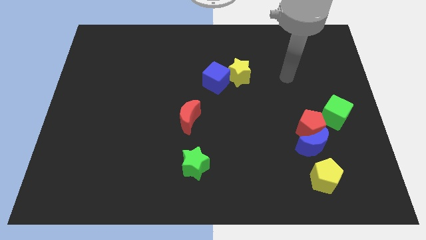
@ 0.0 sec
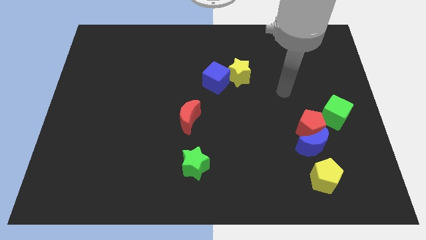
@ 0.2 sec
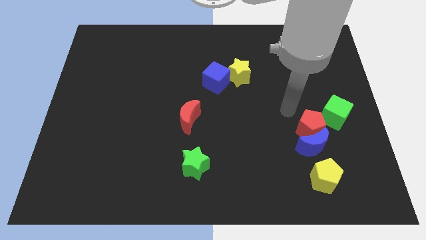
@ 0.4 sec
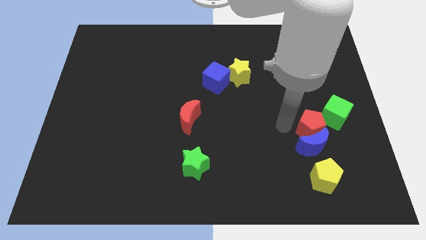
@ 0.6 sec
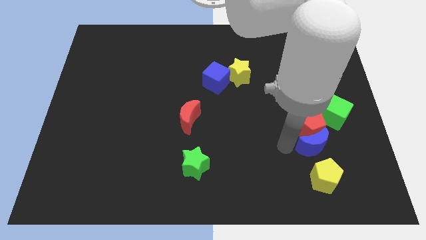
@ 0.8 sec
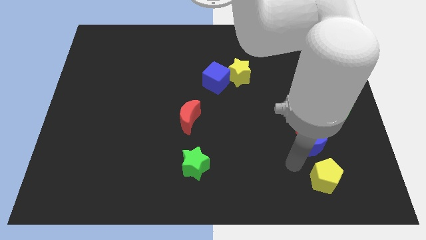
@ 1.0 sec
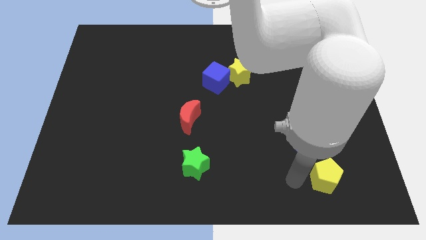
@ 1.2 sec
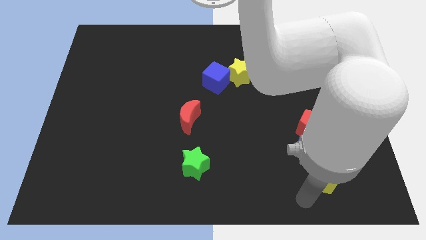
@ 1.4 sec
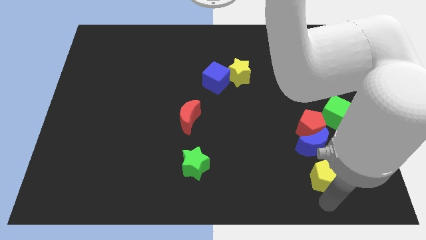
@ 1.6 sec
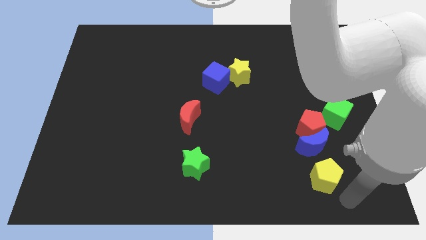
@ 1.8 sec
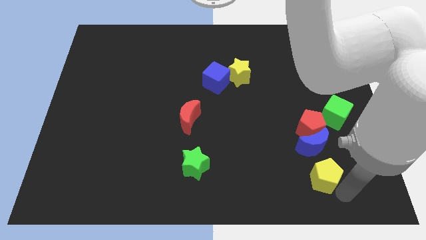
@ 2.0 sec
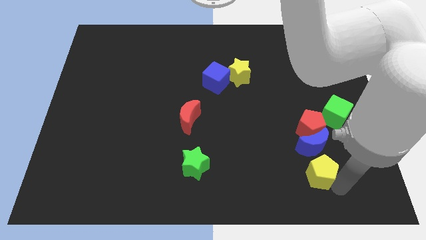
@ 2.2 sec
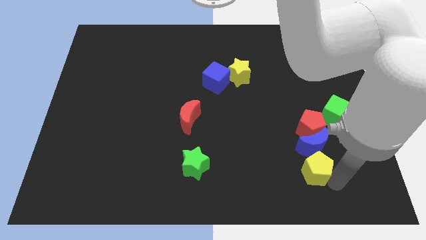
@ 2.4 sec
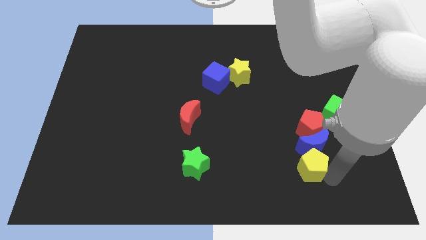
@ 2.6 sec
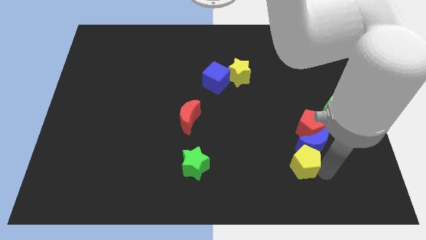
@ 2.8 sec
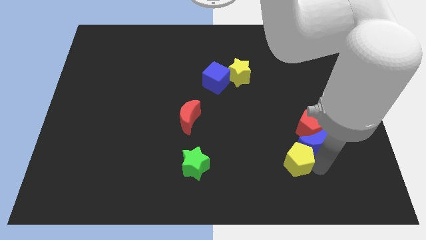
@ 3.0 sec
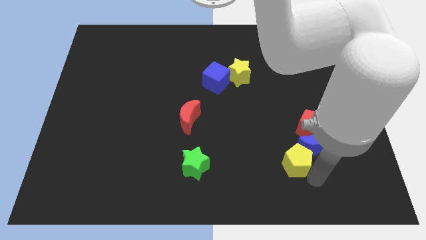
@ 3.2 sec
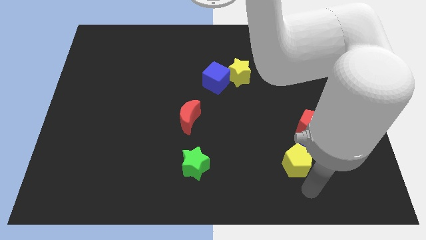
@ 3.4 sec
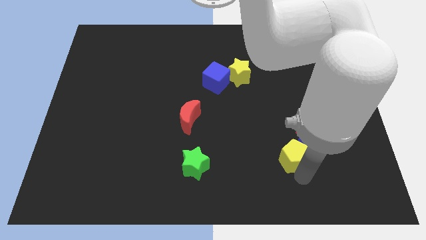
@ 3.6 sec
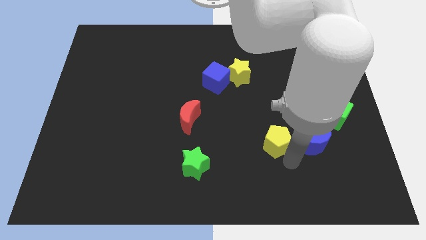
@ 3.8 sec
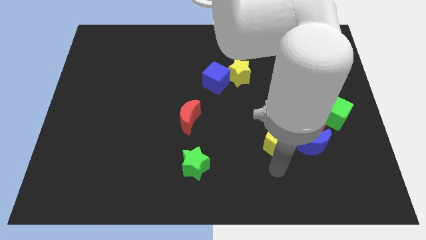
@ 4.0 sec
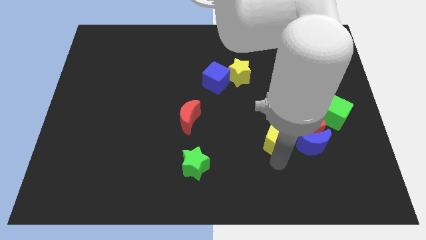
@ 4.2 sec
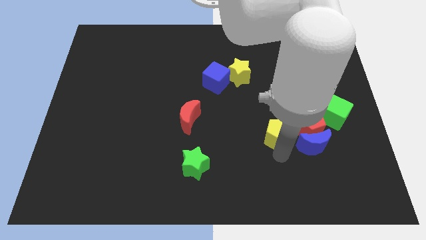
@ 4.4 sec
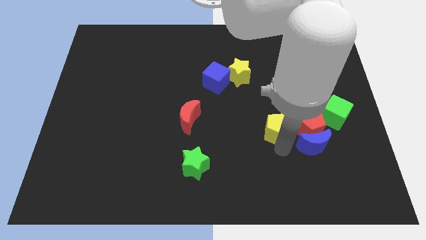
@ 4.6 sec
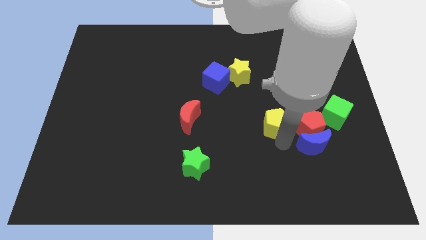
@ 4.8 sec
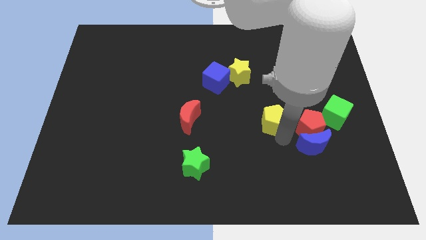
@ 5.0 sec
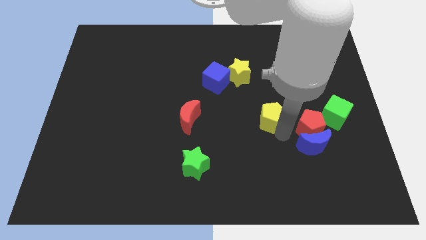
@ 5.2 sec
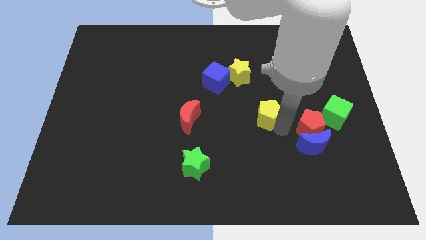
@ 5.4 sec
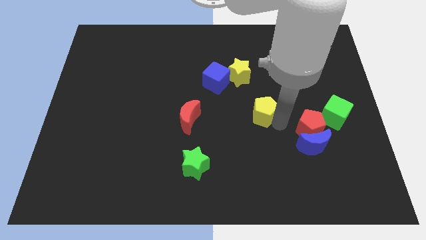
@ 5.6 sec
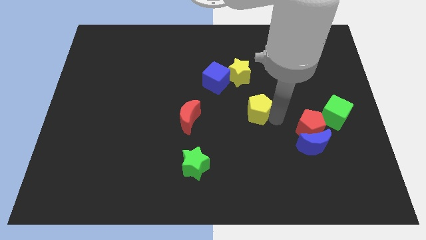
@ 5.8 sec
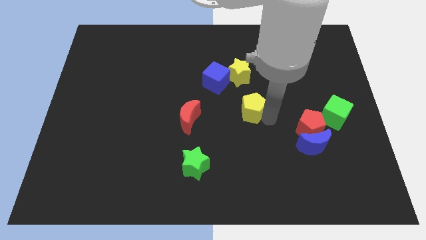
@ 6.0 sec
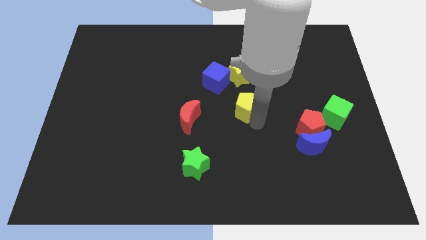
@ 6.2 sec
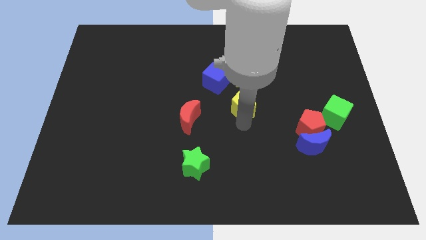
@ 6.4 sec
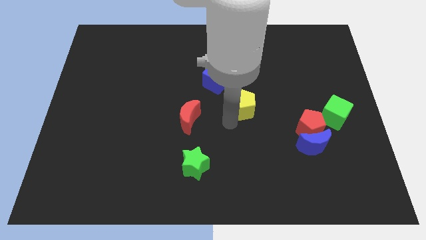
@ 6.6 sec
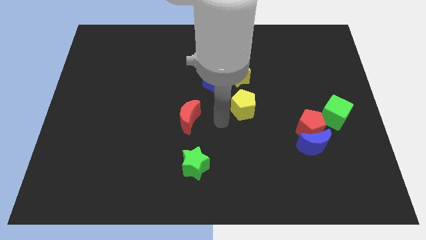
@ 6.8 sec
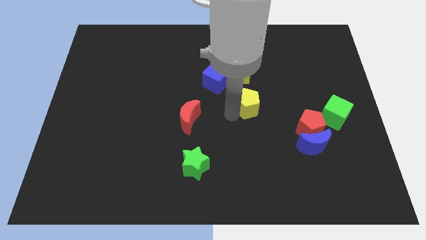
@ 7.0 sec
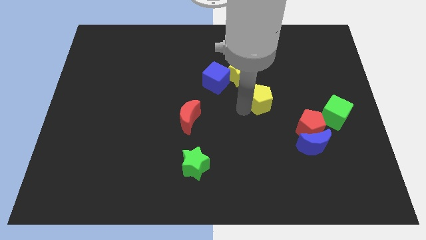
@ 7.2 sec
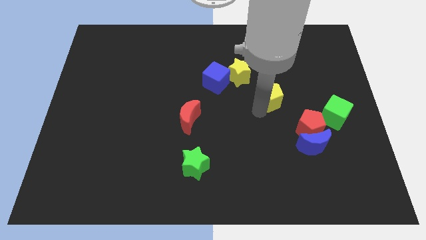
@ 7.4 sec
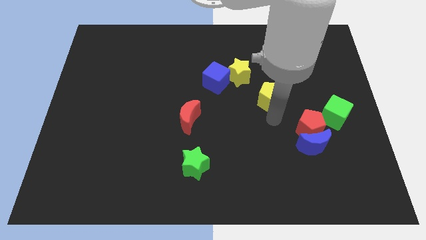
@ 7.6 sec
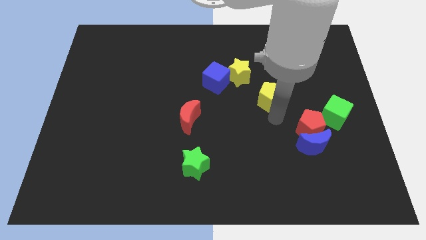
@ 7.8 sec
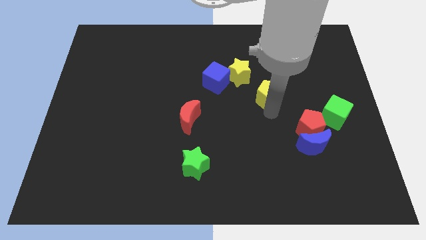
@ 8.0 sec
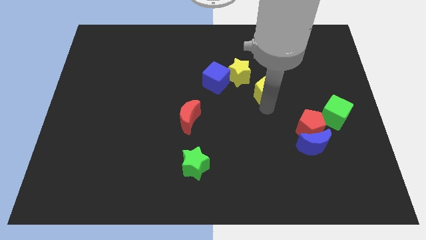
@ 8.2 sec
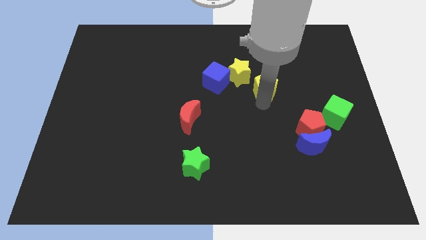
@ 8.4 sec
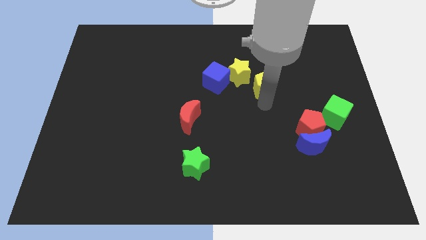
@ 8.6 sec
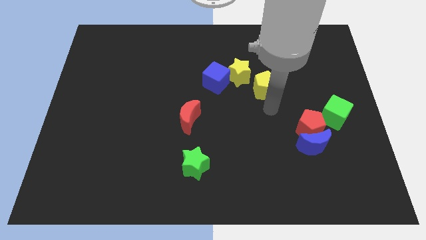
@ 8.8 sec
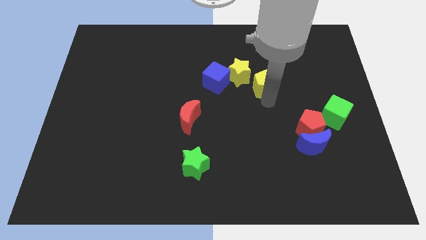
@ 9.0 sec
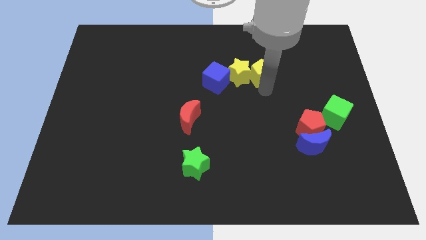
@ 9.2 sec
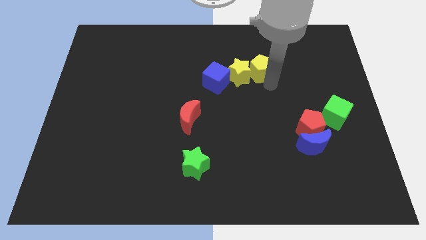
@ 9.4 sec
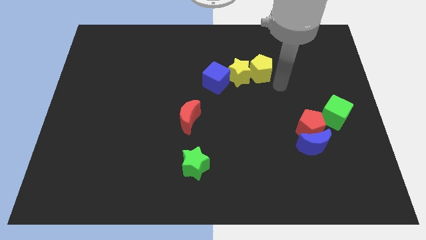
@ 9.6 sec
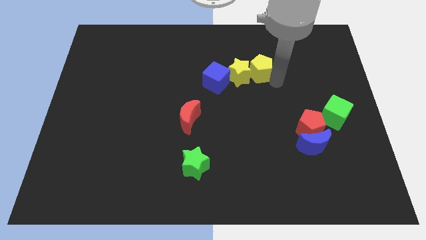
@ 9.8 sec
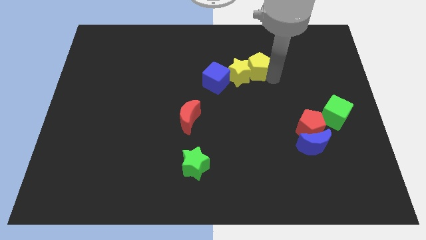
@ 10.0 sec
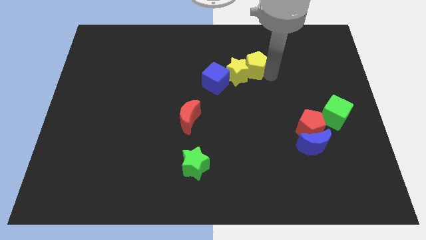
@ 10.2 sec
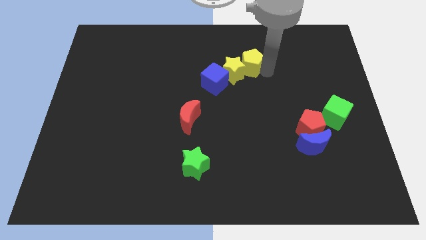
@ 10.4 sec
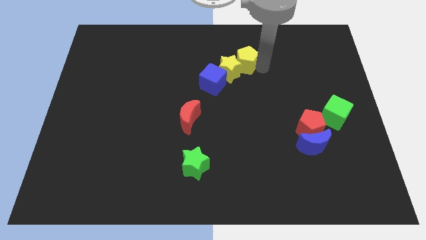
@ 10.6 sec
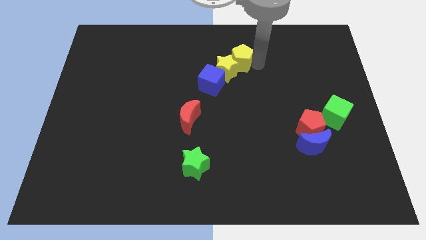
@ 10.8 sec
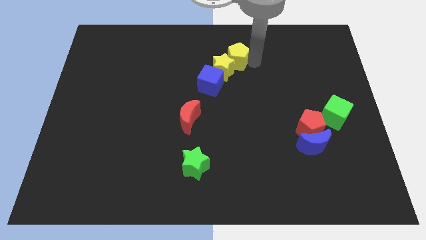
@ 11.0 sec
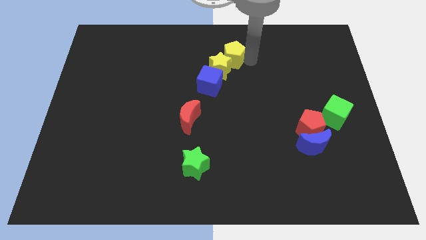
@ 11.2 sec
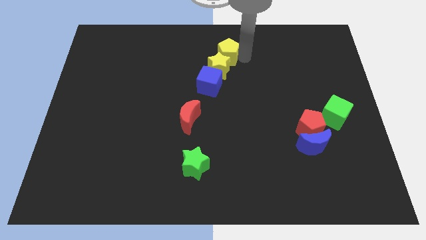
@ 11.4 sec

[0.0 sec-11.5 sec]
move the yellow pentagon to the top side
